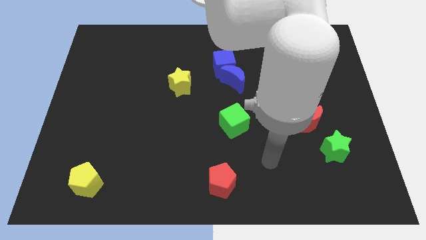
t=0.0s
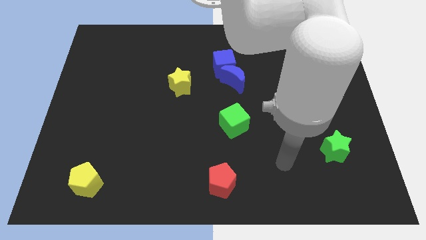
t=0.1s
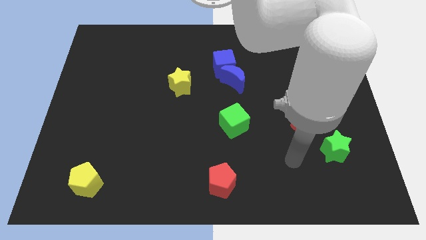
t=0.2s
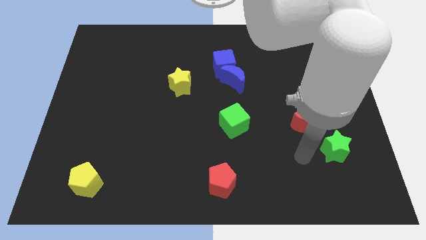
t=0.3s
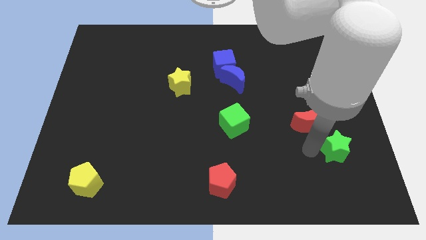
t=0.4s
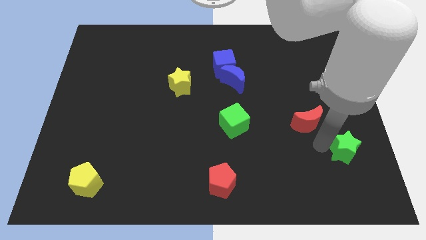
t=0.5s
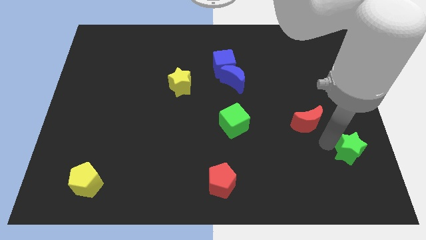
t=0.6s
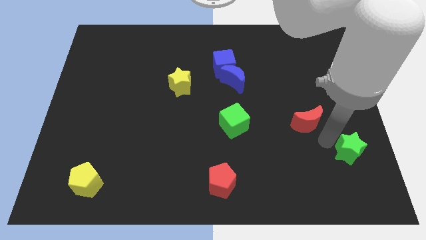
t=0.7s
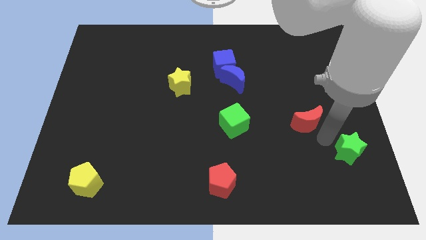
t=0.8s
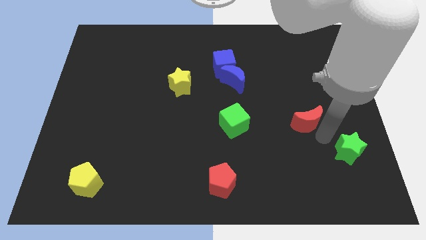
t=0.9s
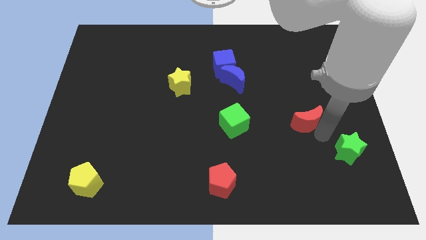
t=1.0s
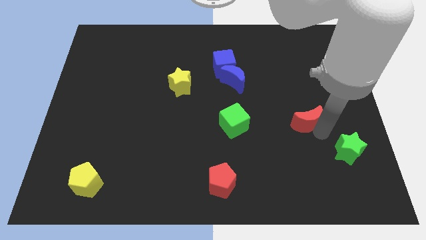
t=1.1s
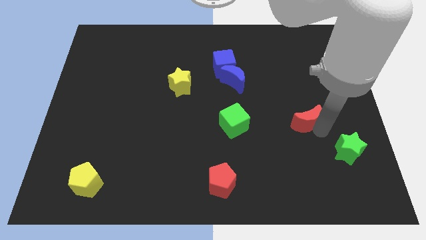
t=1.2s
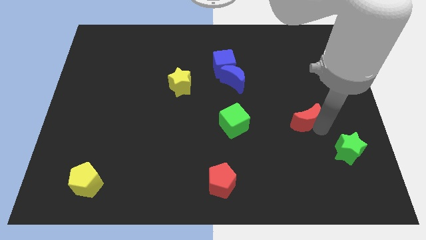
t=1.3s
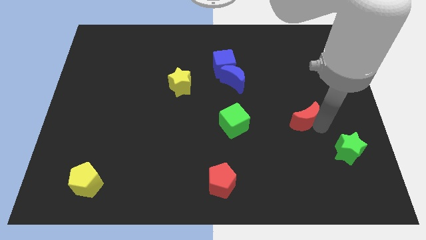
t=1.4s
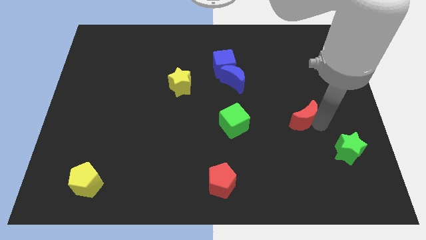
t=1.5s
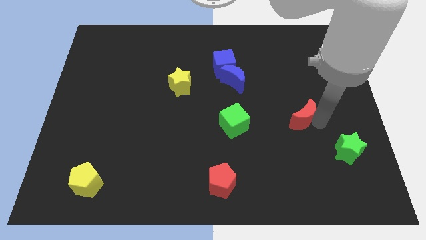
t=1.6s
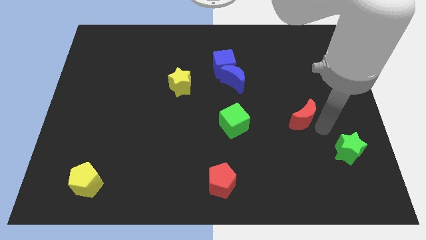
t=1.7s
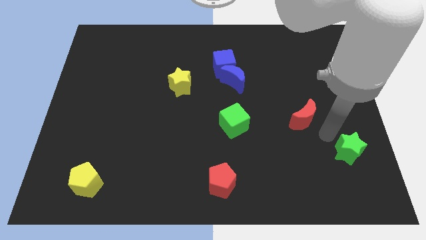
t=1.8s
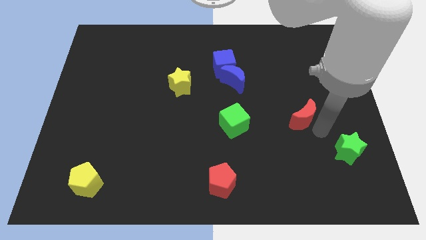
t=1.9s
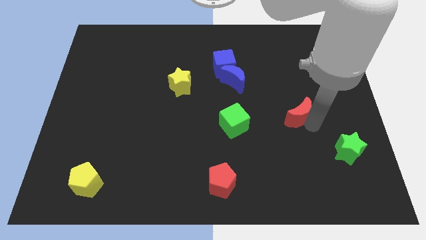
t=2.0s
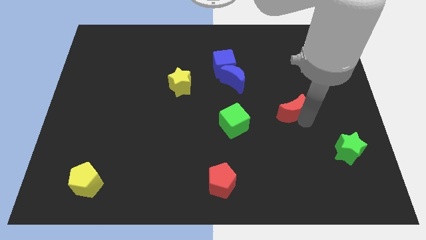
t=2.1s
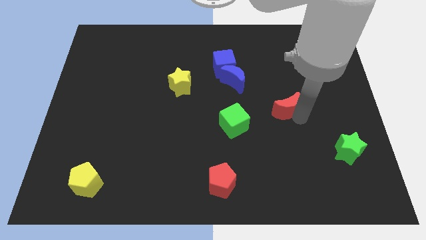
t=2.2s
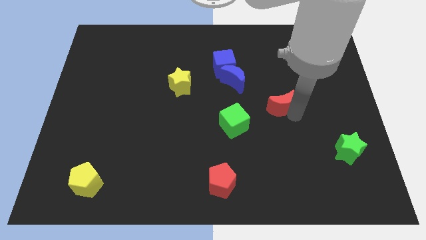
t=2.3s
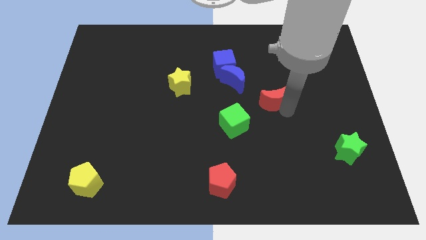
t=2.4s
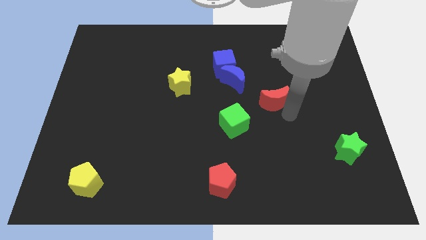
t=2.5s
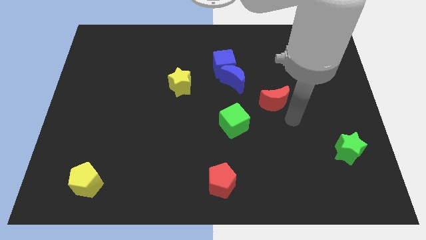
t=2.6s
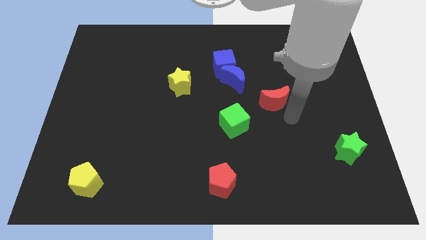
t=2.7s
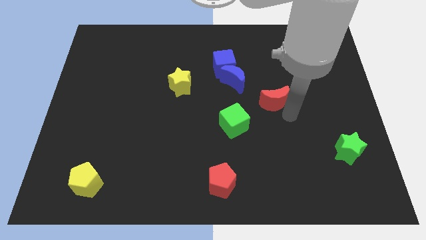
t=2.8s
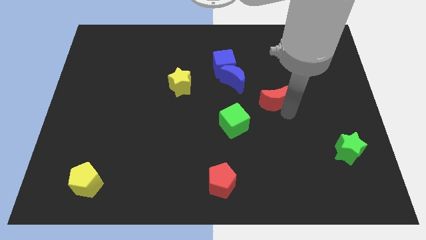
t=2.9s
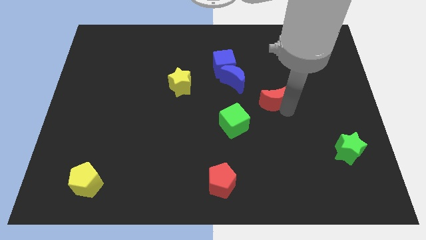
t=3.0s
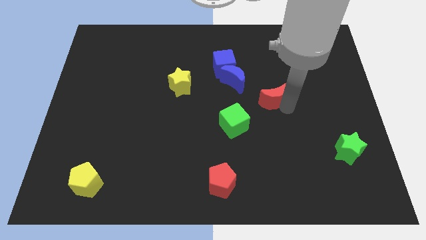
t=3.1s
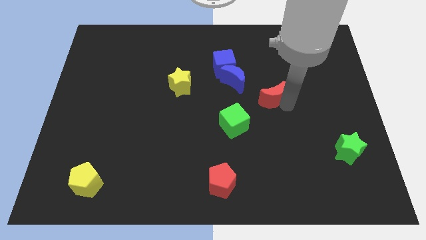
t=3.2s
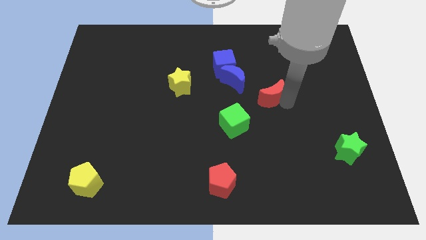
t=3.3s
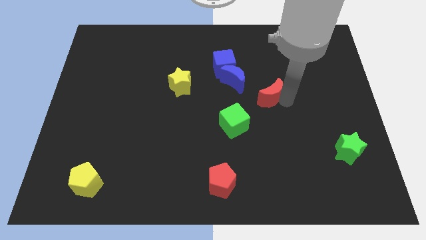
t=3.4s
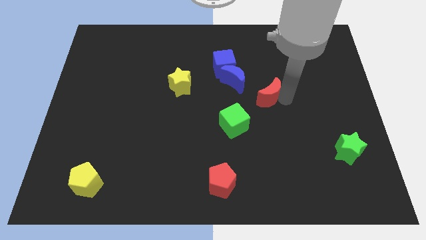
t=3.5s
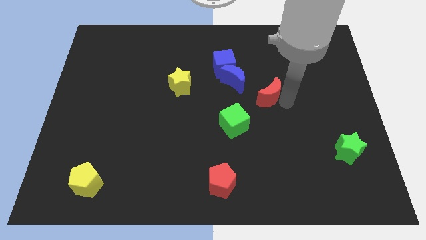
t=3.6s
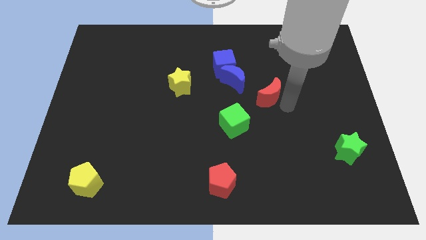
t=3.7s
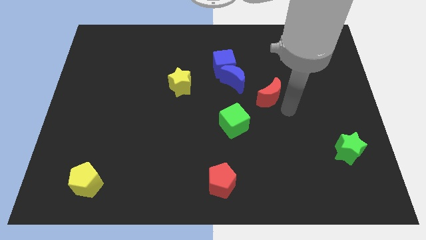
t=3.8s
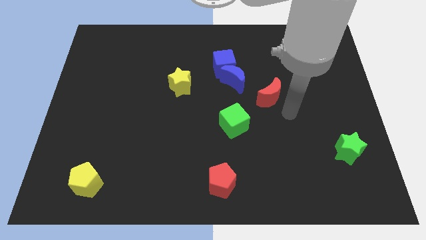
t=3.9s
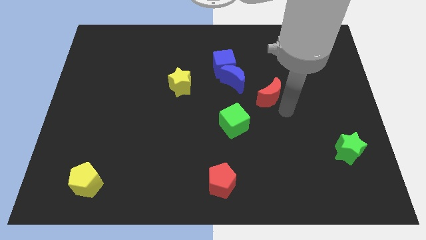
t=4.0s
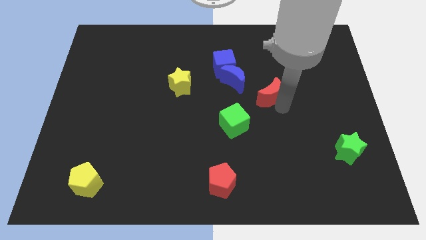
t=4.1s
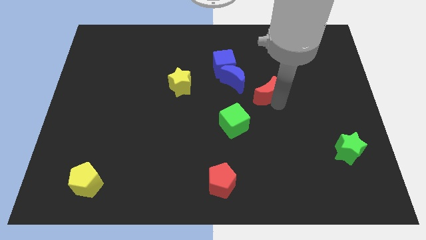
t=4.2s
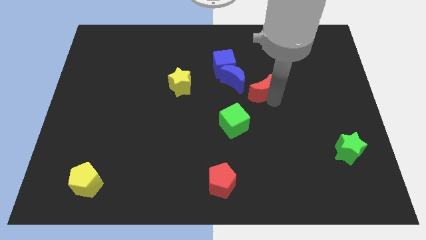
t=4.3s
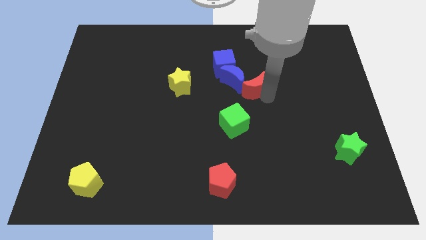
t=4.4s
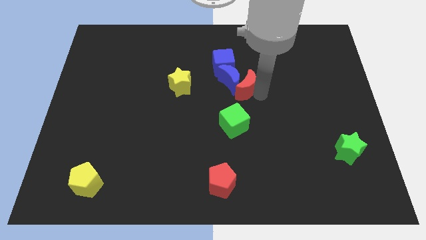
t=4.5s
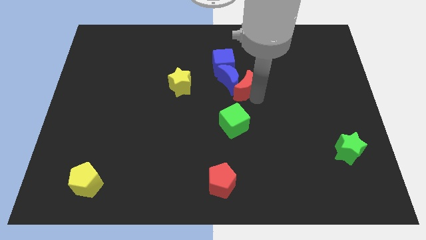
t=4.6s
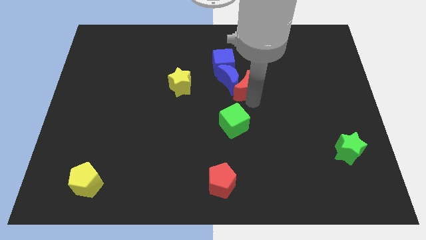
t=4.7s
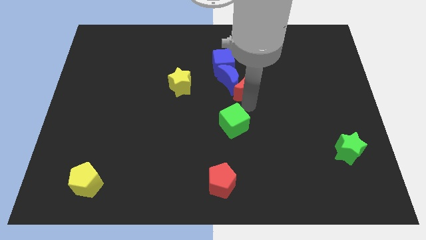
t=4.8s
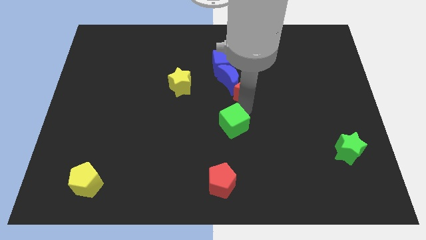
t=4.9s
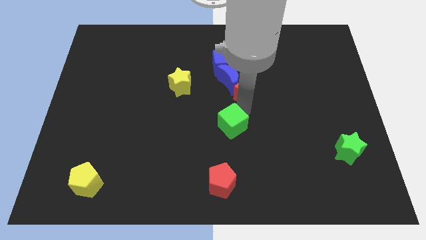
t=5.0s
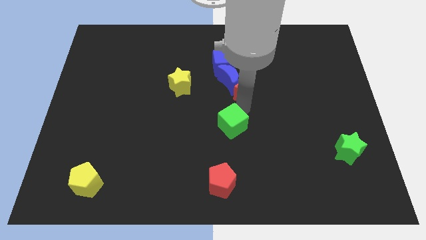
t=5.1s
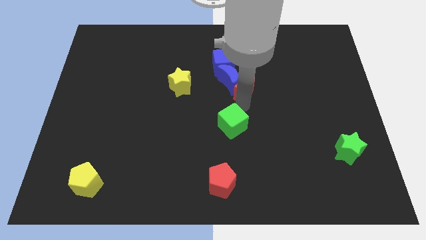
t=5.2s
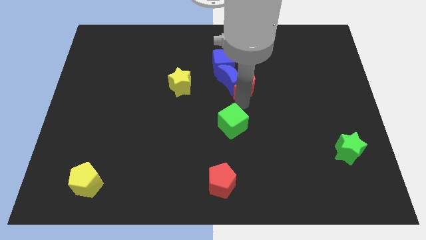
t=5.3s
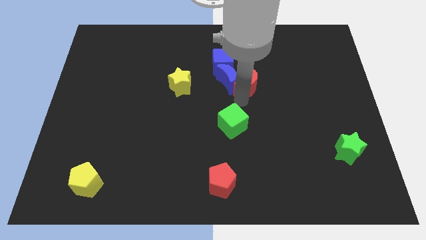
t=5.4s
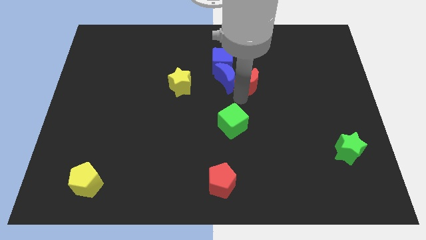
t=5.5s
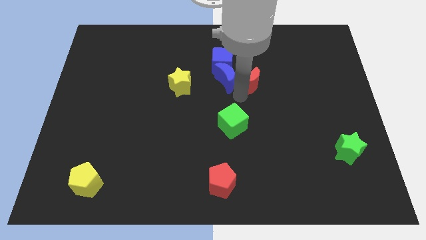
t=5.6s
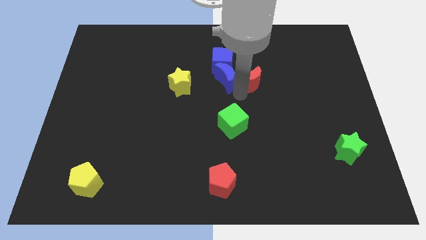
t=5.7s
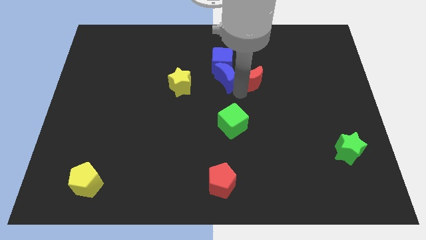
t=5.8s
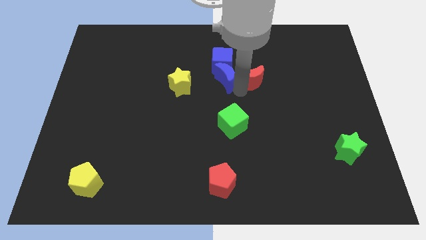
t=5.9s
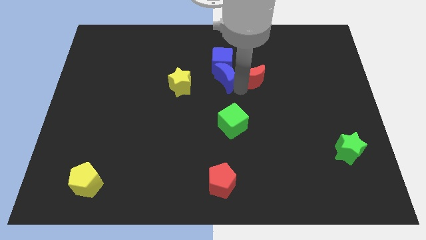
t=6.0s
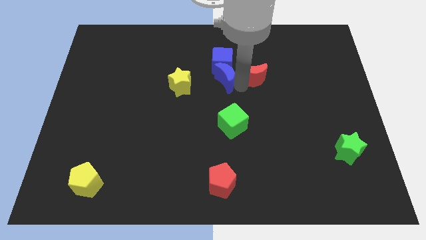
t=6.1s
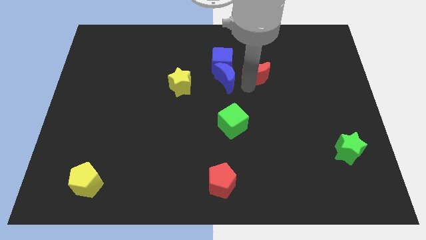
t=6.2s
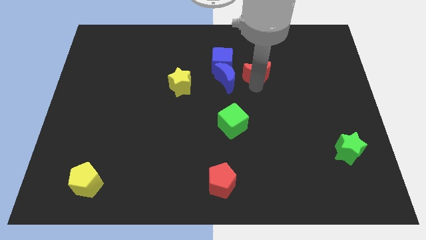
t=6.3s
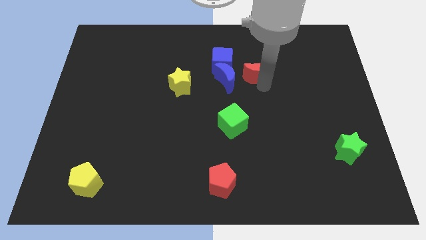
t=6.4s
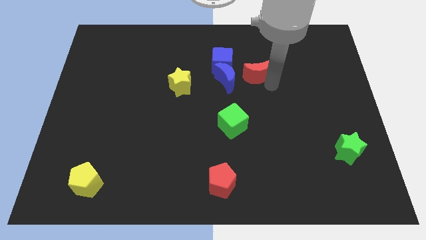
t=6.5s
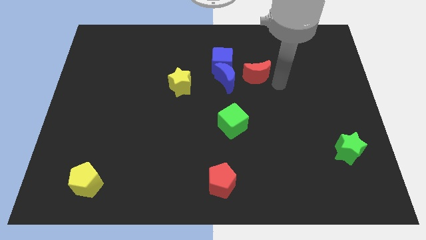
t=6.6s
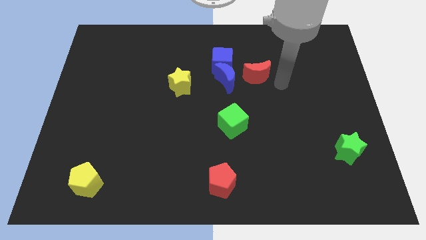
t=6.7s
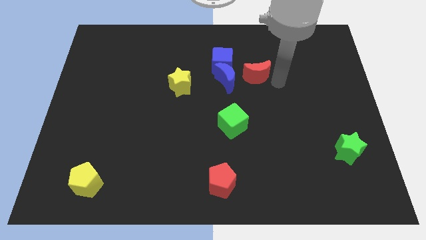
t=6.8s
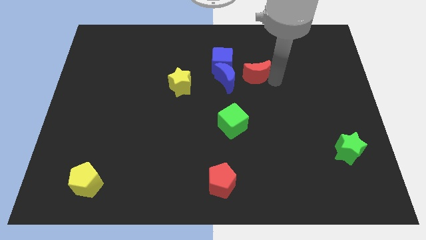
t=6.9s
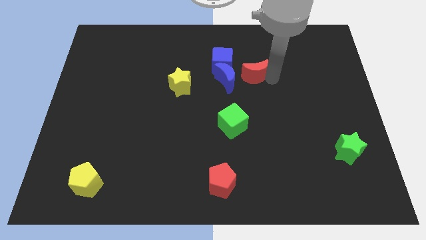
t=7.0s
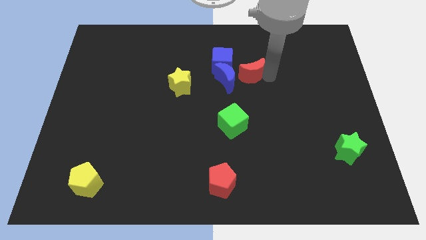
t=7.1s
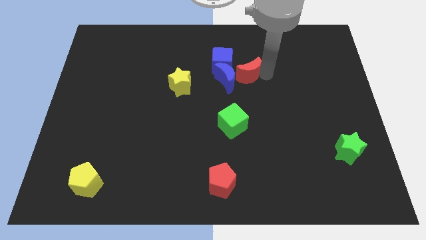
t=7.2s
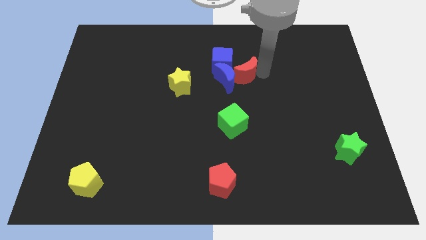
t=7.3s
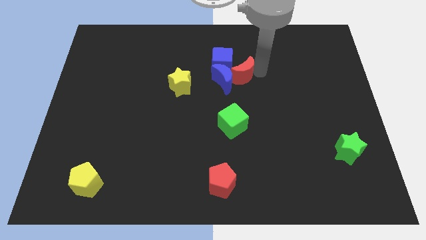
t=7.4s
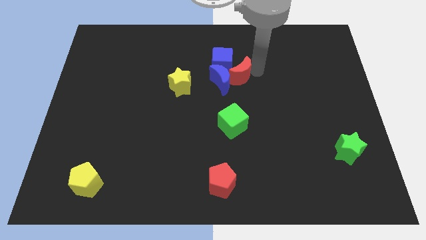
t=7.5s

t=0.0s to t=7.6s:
push the red moon next to the blue cube
